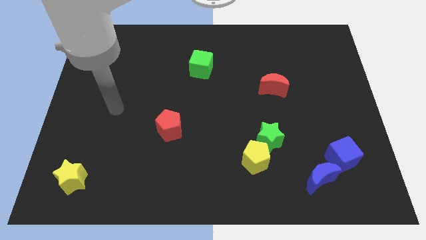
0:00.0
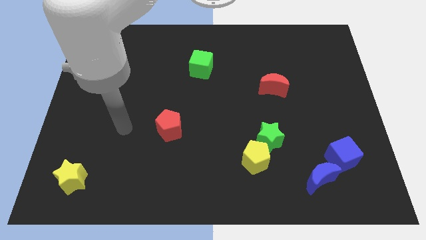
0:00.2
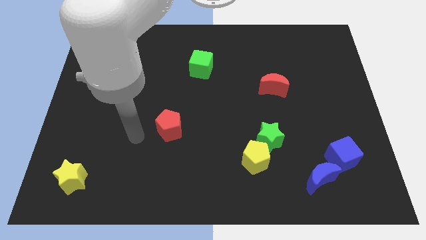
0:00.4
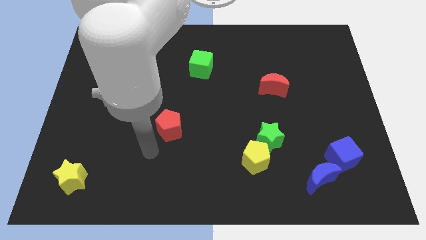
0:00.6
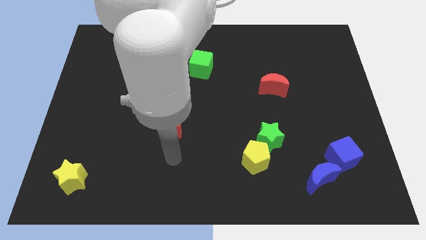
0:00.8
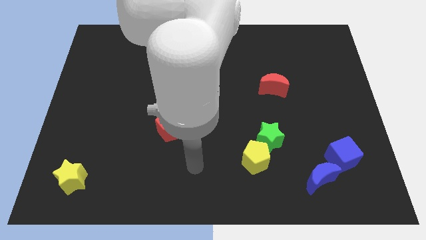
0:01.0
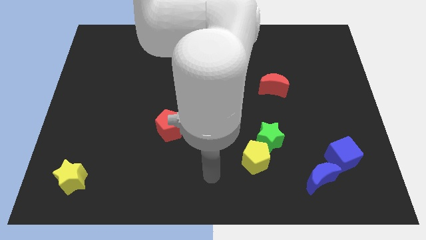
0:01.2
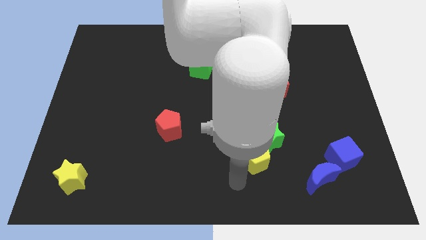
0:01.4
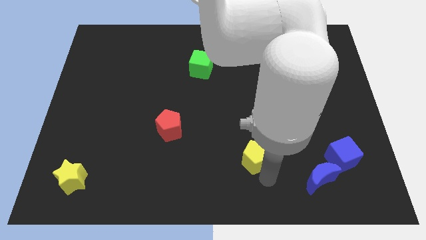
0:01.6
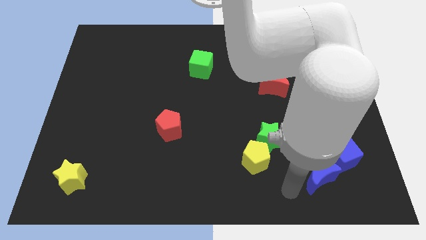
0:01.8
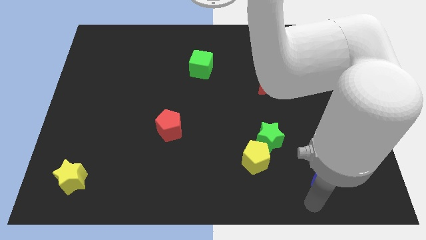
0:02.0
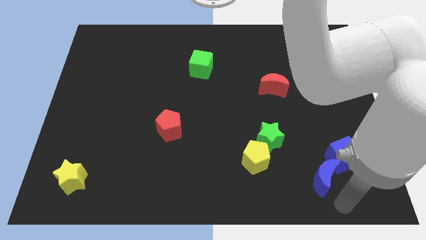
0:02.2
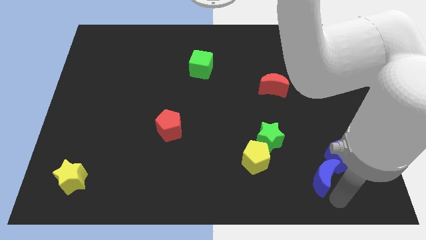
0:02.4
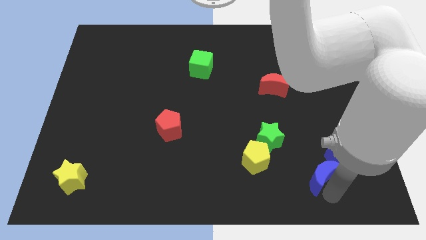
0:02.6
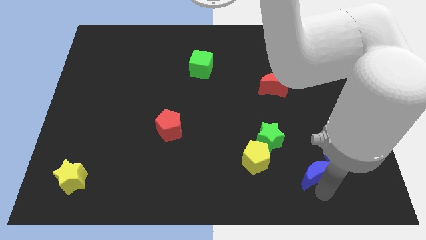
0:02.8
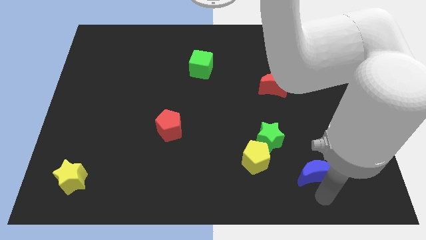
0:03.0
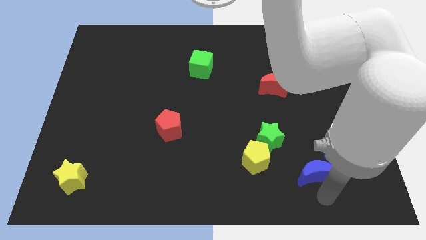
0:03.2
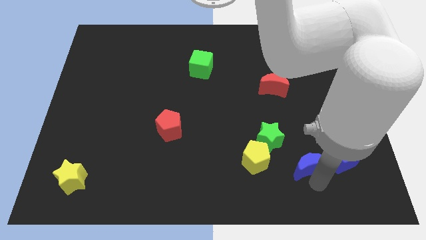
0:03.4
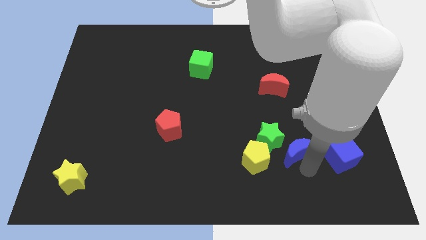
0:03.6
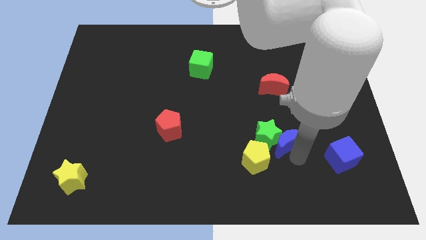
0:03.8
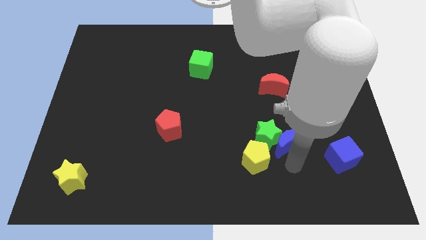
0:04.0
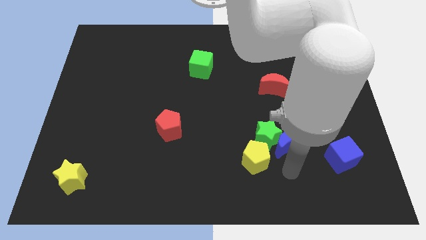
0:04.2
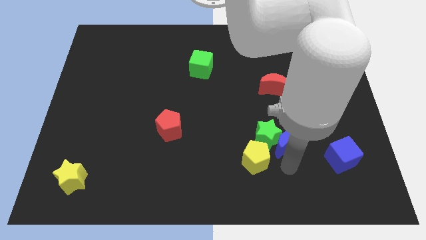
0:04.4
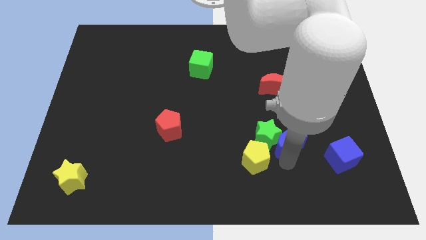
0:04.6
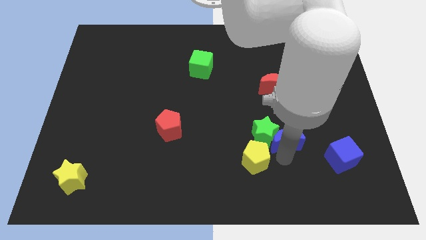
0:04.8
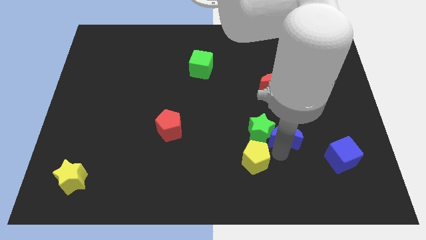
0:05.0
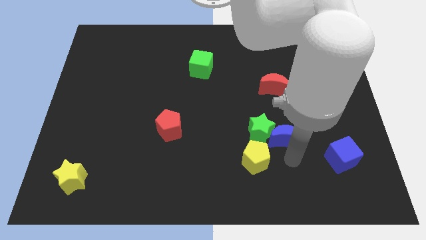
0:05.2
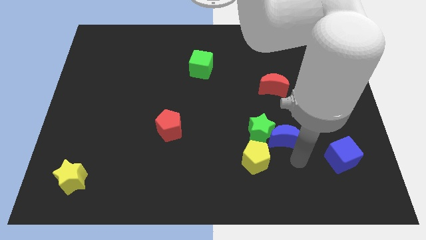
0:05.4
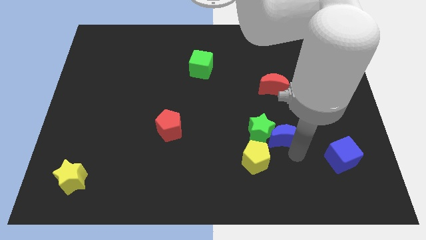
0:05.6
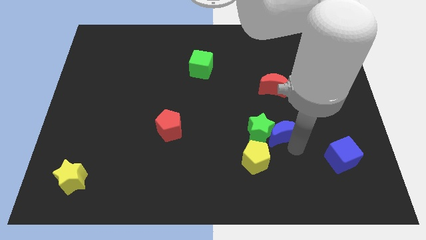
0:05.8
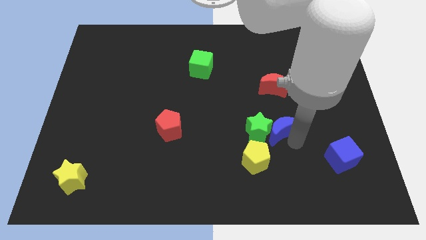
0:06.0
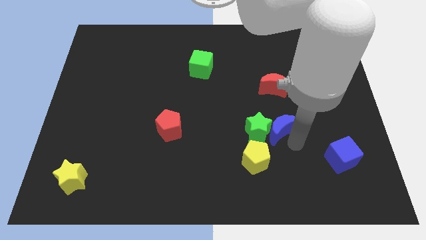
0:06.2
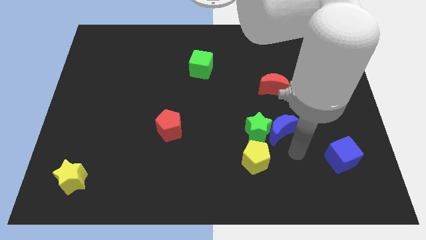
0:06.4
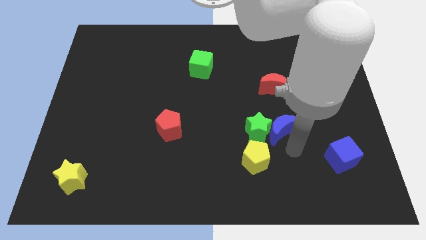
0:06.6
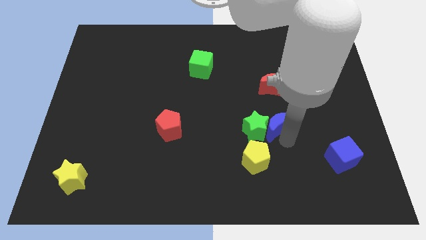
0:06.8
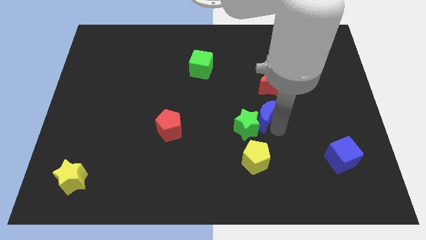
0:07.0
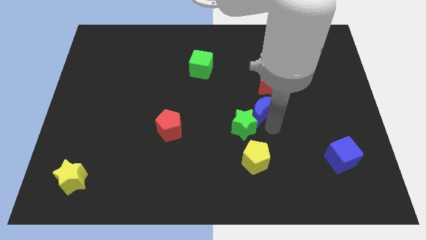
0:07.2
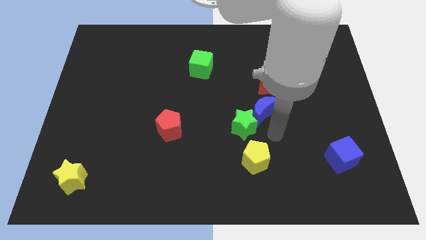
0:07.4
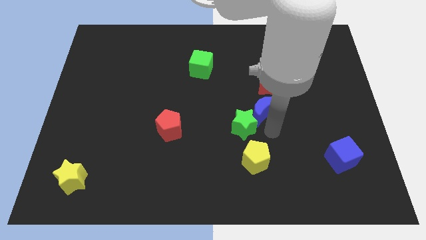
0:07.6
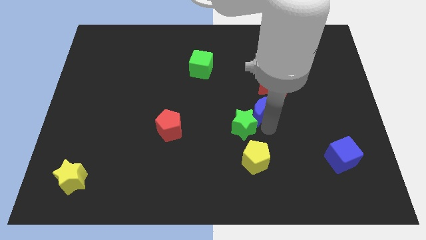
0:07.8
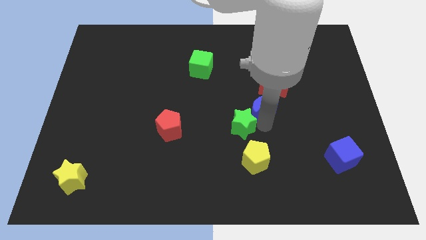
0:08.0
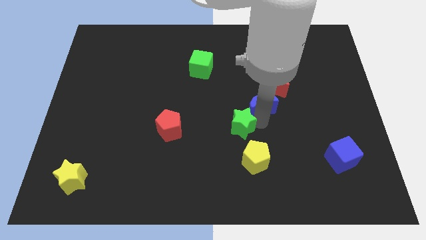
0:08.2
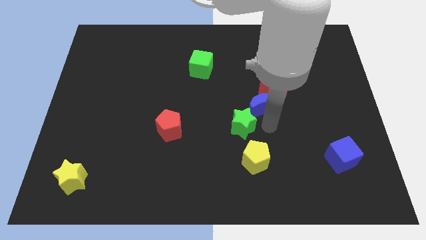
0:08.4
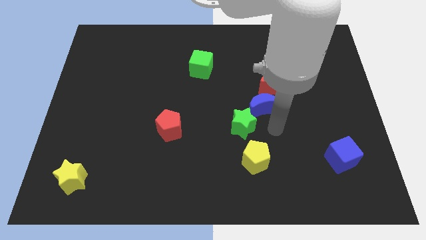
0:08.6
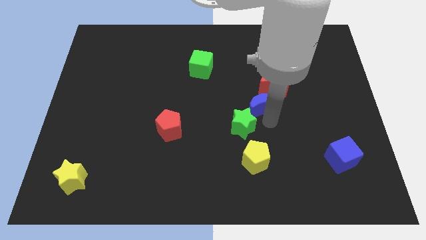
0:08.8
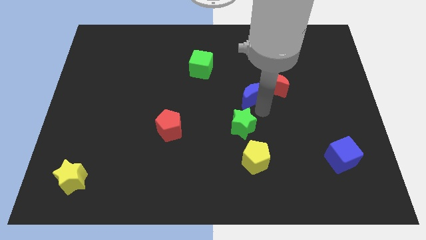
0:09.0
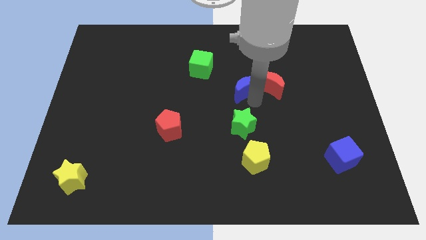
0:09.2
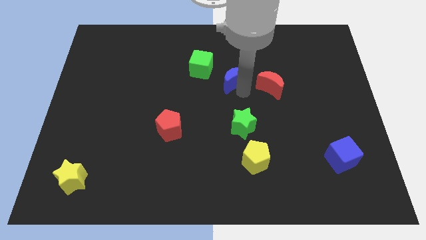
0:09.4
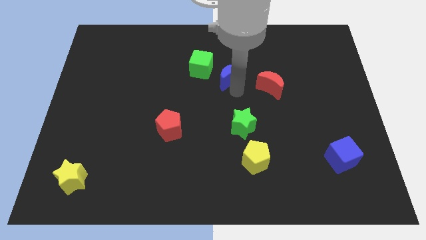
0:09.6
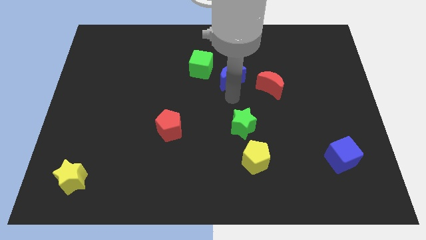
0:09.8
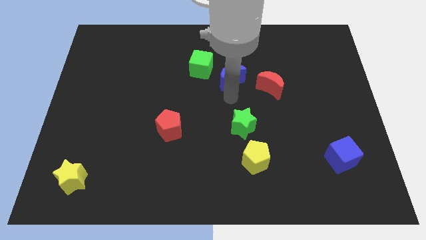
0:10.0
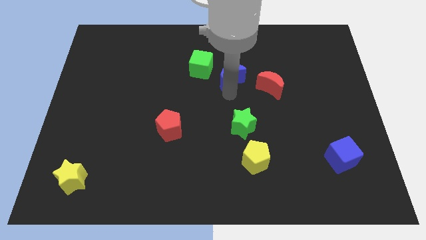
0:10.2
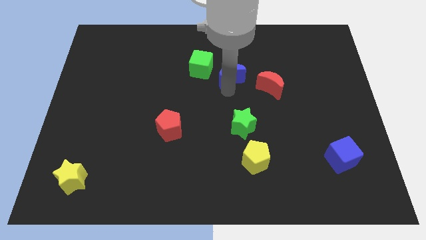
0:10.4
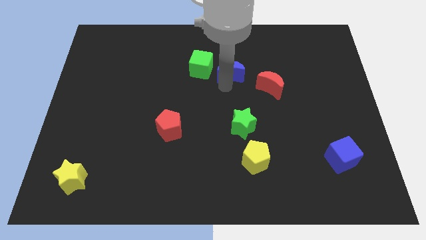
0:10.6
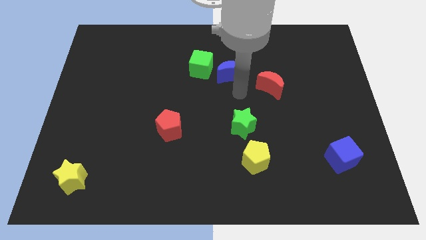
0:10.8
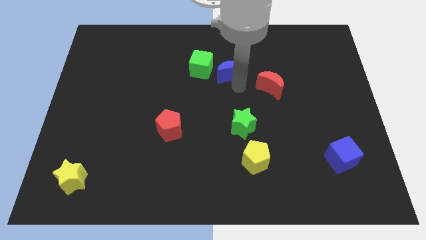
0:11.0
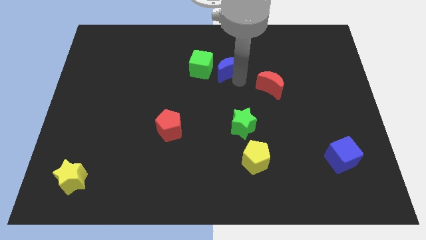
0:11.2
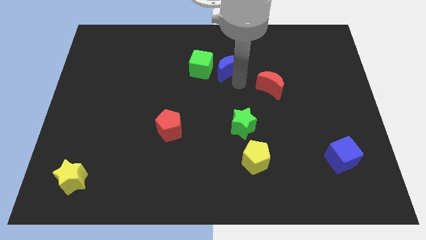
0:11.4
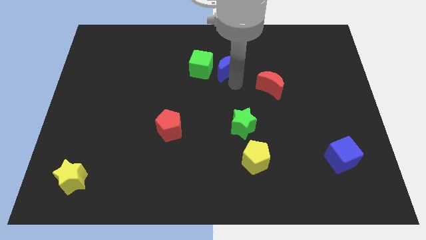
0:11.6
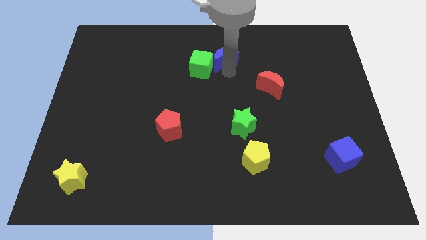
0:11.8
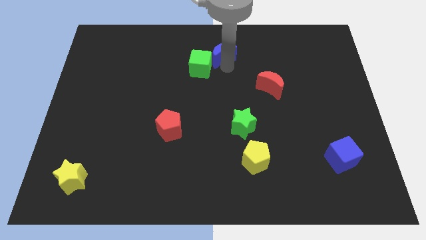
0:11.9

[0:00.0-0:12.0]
push the blue moon to the towards your base
